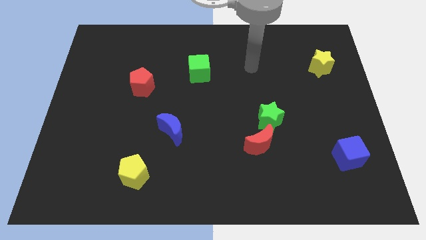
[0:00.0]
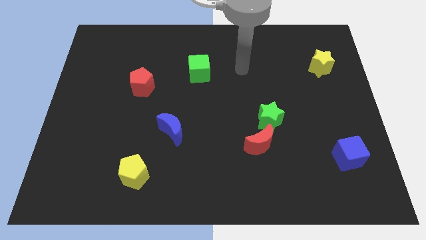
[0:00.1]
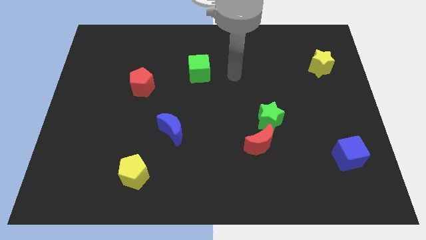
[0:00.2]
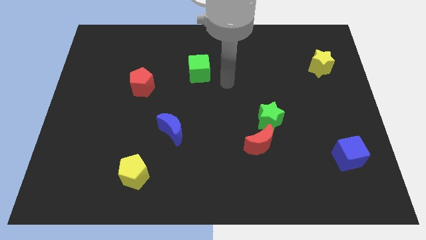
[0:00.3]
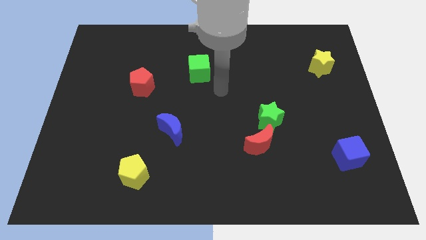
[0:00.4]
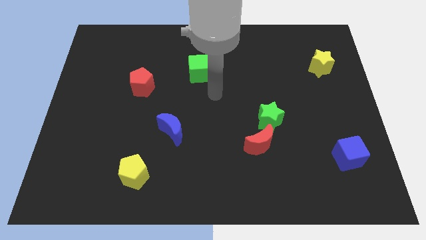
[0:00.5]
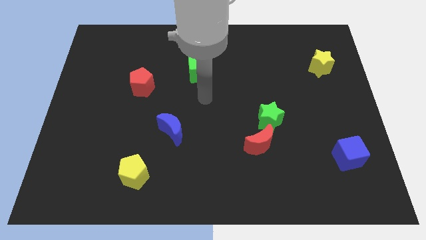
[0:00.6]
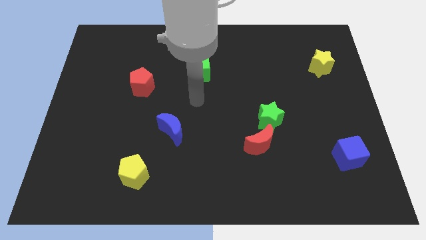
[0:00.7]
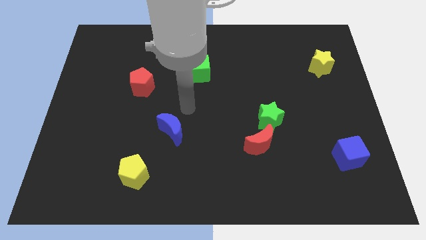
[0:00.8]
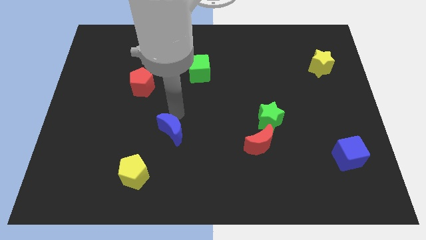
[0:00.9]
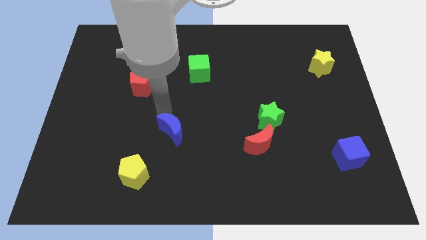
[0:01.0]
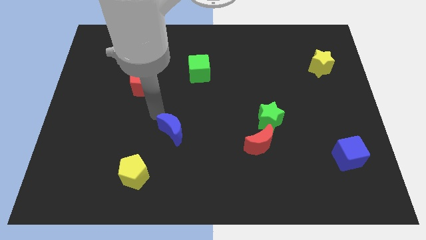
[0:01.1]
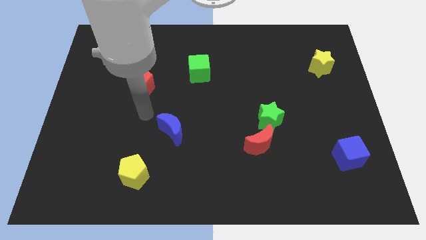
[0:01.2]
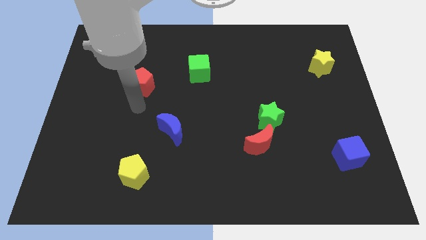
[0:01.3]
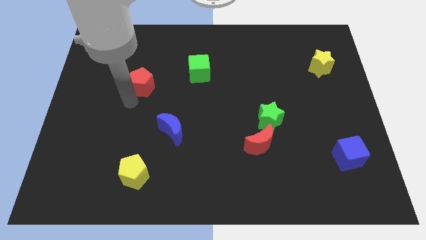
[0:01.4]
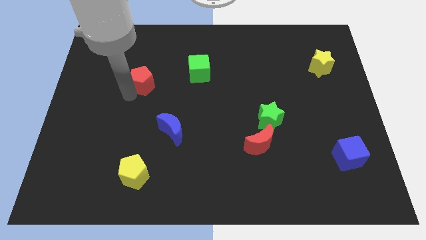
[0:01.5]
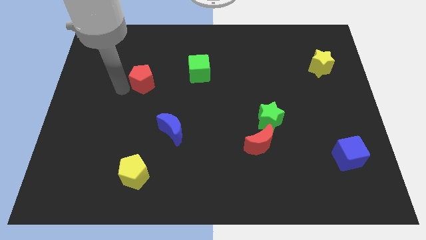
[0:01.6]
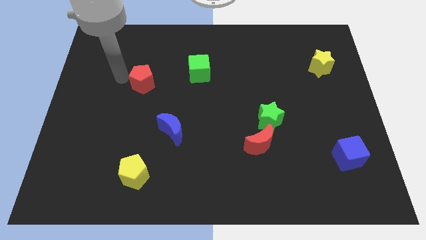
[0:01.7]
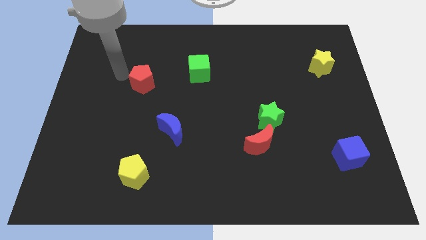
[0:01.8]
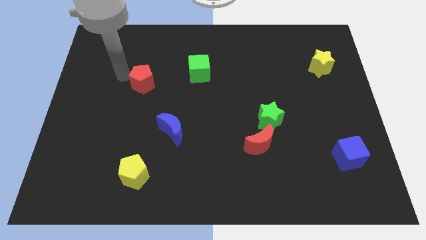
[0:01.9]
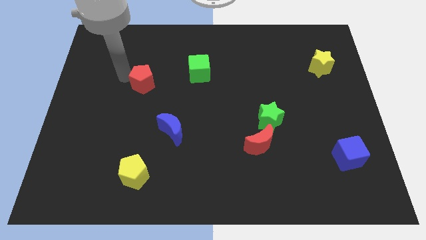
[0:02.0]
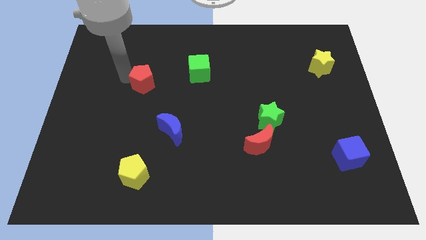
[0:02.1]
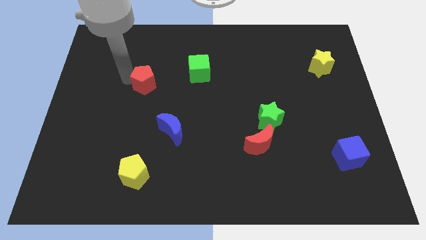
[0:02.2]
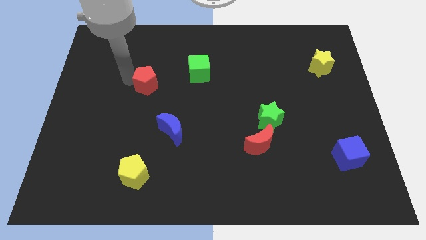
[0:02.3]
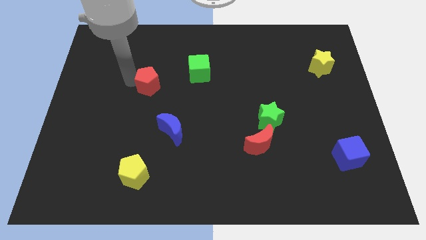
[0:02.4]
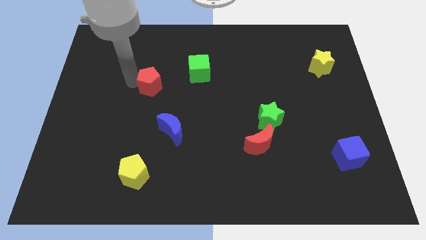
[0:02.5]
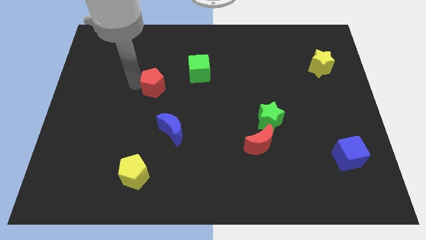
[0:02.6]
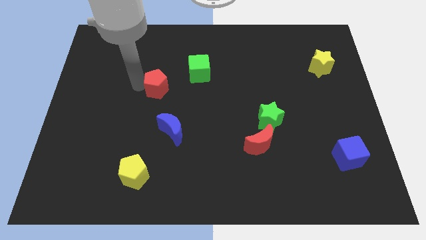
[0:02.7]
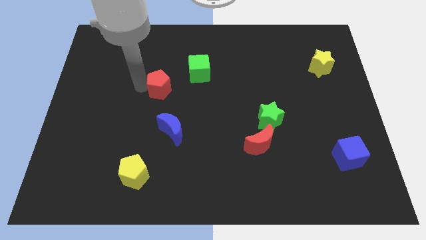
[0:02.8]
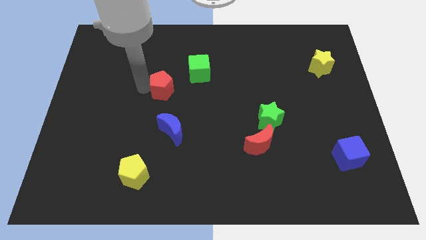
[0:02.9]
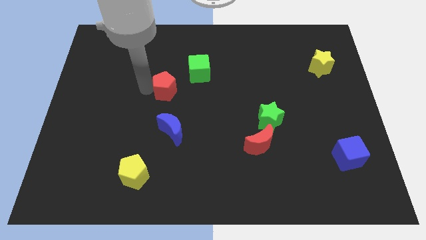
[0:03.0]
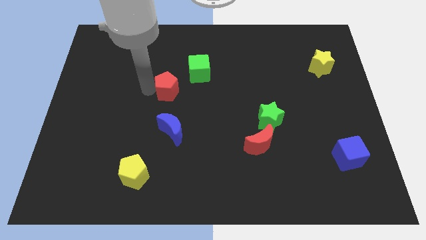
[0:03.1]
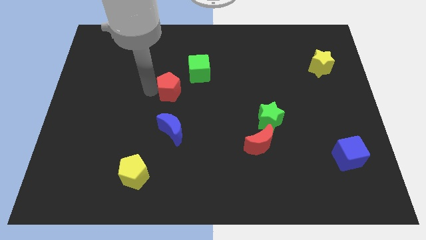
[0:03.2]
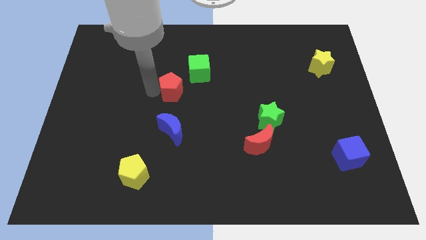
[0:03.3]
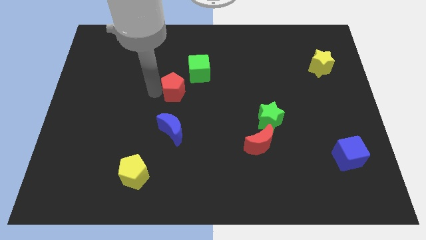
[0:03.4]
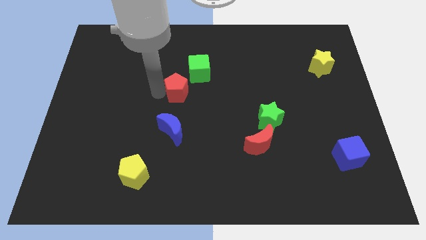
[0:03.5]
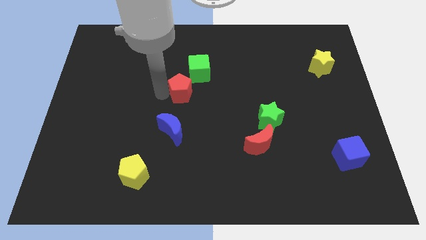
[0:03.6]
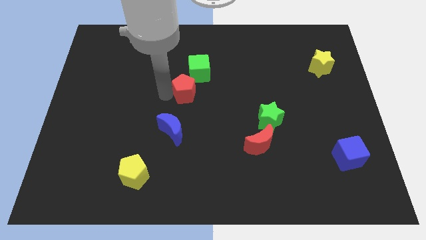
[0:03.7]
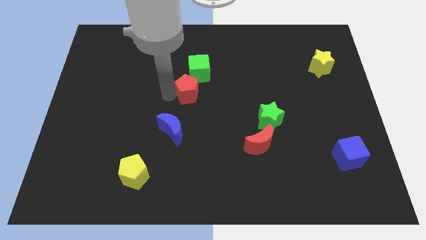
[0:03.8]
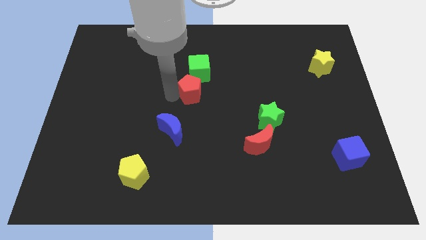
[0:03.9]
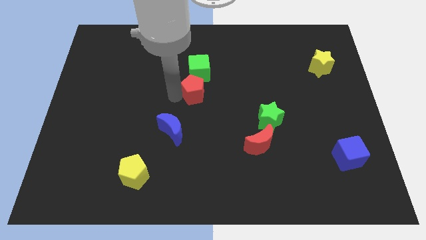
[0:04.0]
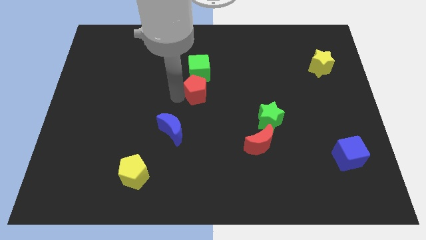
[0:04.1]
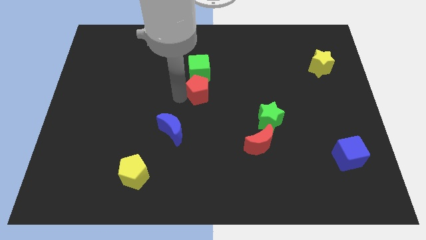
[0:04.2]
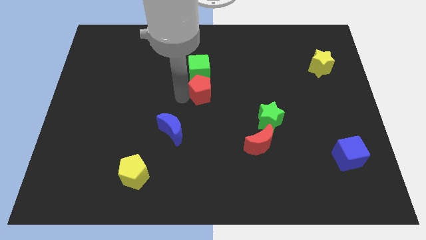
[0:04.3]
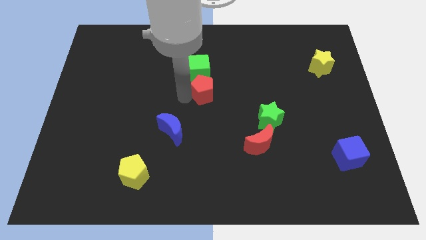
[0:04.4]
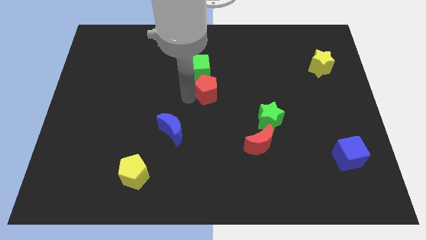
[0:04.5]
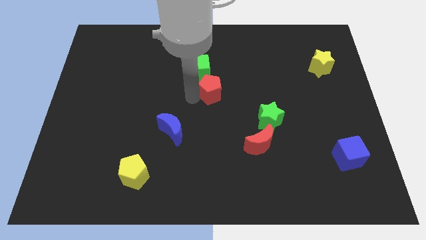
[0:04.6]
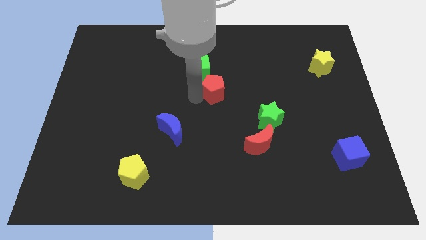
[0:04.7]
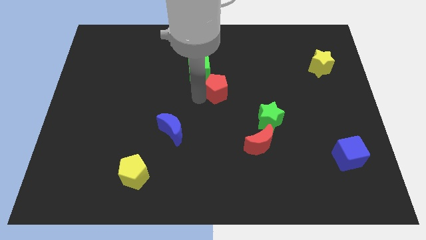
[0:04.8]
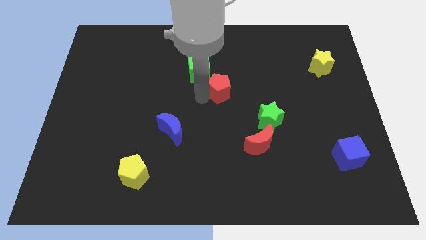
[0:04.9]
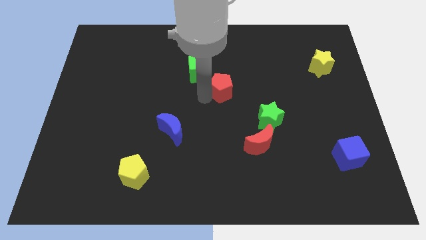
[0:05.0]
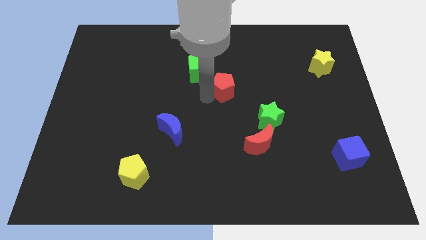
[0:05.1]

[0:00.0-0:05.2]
move the red pentagon right

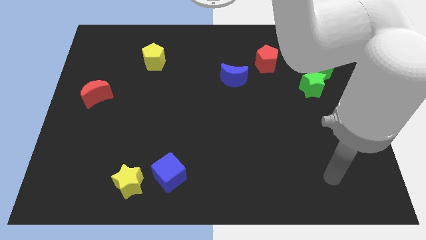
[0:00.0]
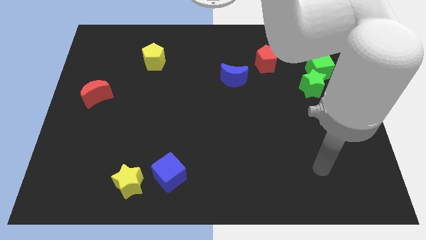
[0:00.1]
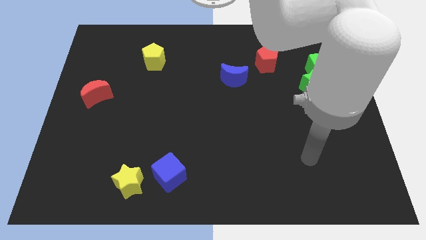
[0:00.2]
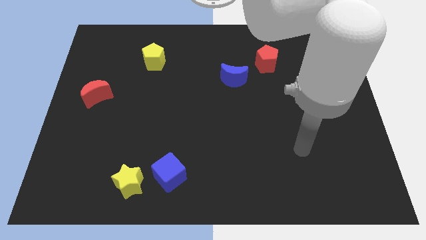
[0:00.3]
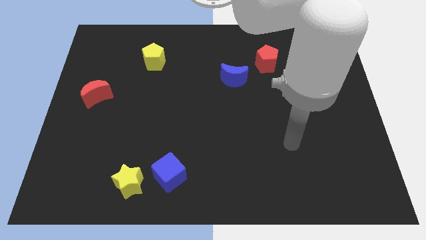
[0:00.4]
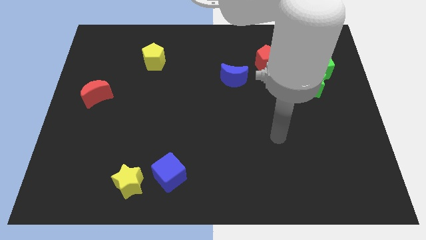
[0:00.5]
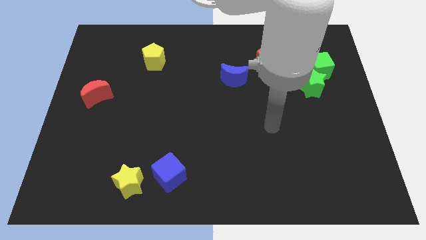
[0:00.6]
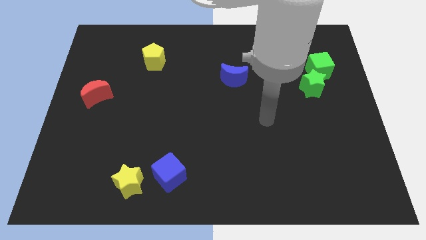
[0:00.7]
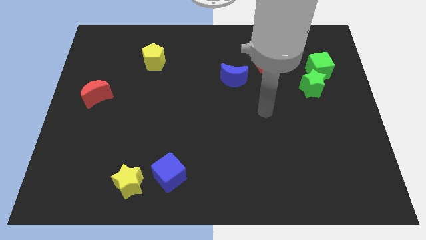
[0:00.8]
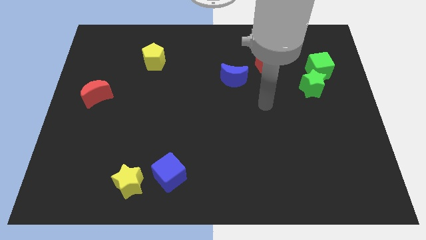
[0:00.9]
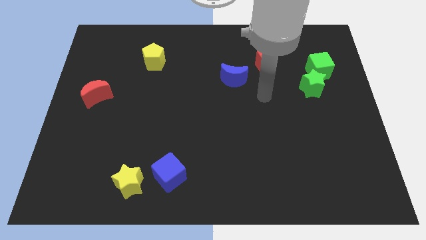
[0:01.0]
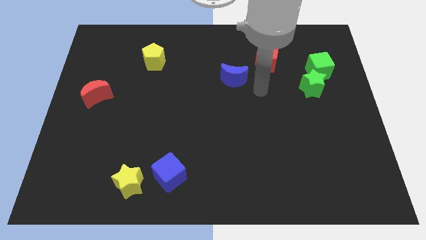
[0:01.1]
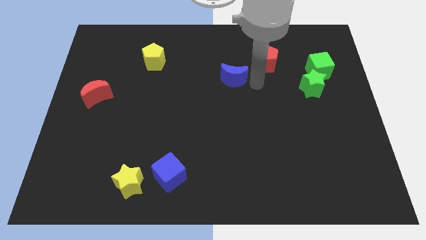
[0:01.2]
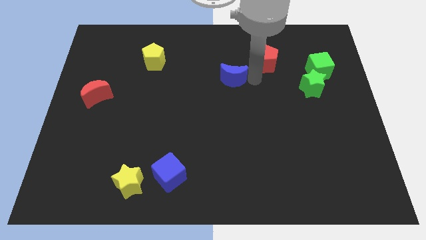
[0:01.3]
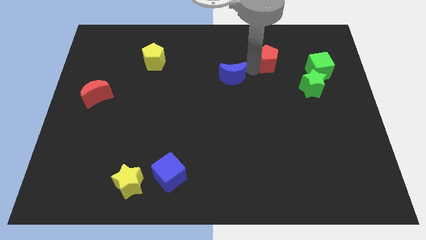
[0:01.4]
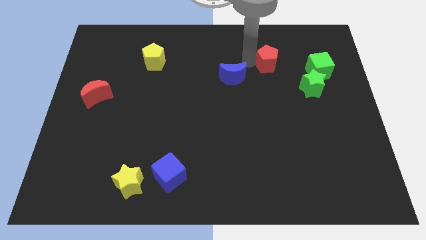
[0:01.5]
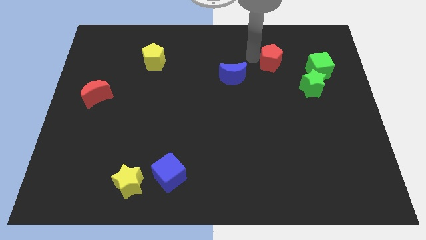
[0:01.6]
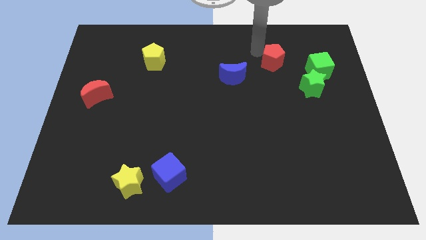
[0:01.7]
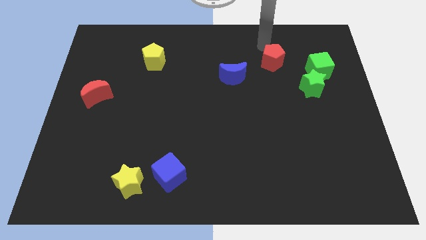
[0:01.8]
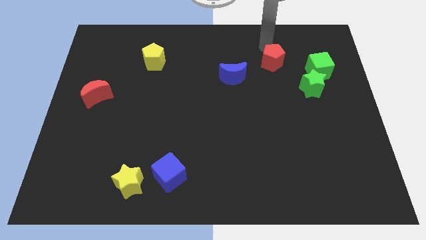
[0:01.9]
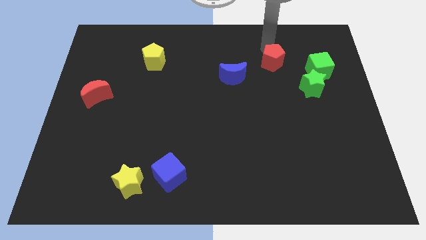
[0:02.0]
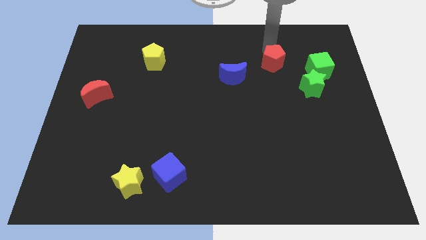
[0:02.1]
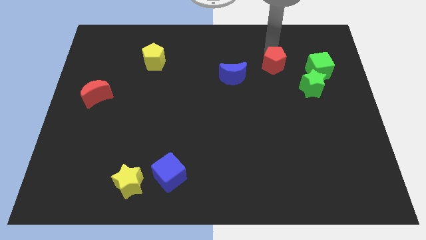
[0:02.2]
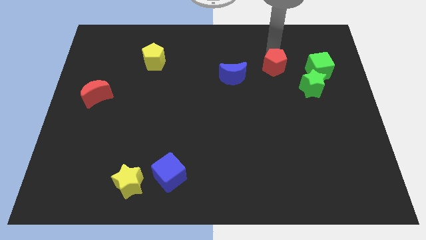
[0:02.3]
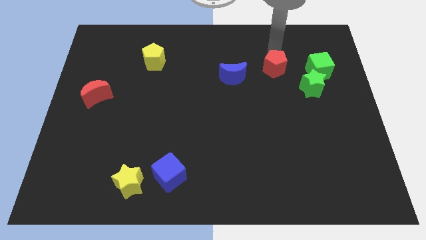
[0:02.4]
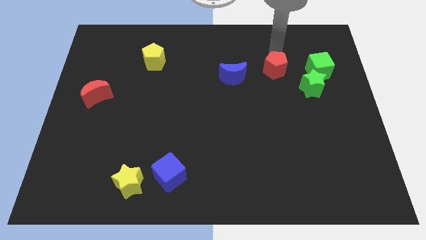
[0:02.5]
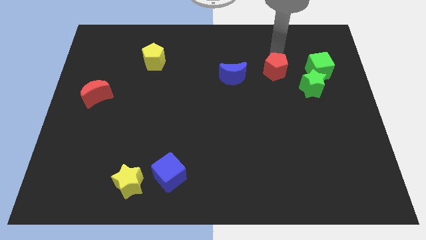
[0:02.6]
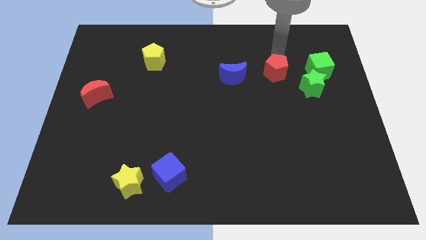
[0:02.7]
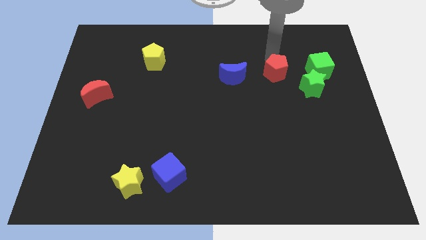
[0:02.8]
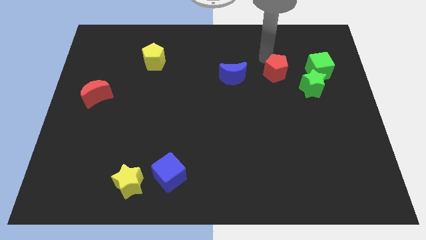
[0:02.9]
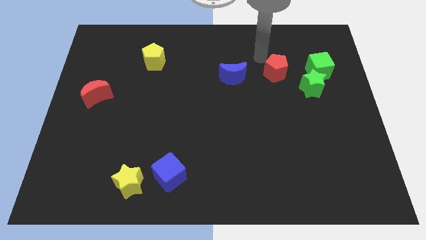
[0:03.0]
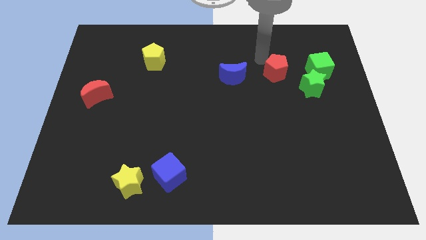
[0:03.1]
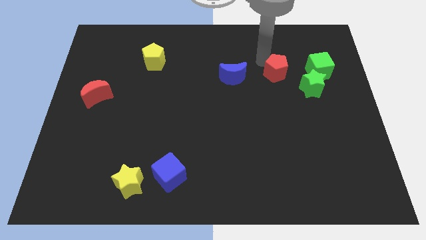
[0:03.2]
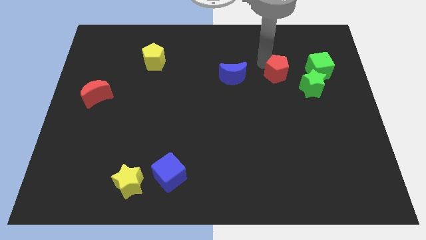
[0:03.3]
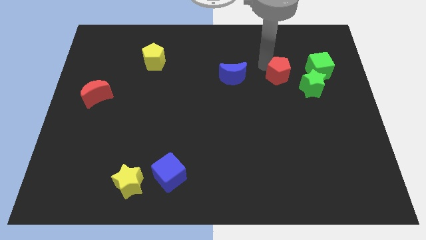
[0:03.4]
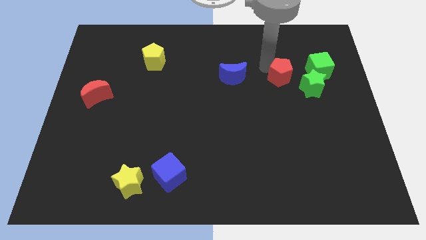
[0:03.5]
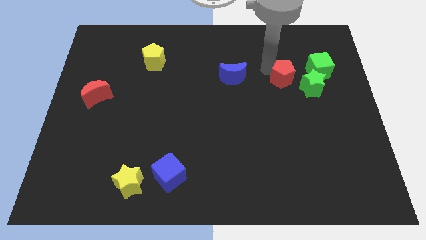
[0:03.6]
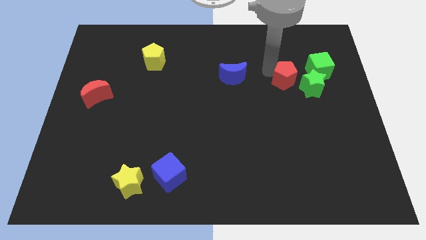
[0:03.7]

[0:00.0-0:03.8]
move the red pentagon somewhat downwards and then right
